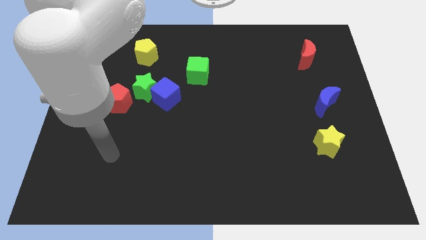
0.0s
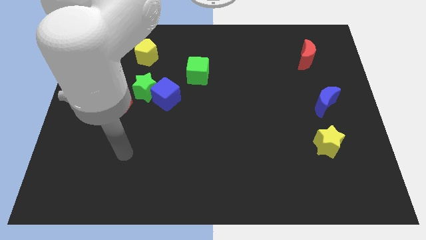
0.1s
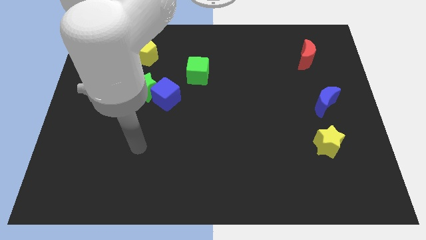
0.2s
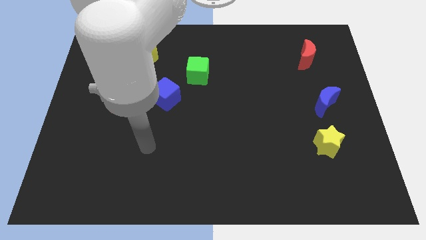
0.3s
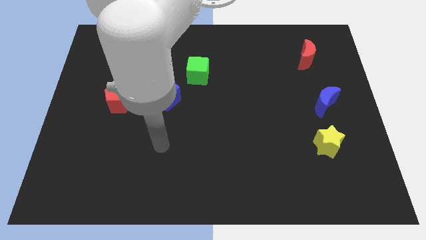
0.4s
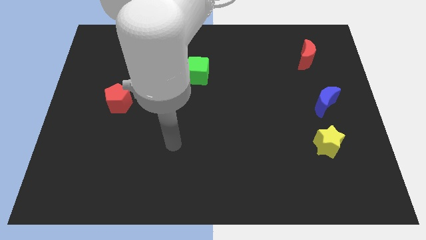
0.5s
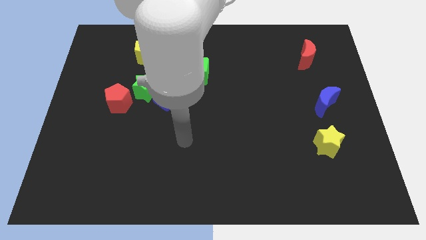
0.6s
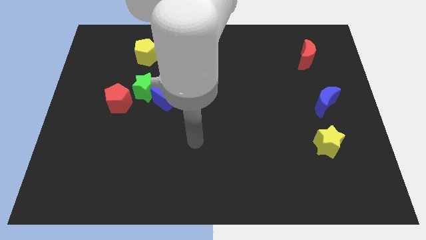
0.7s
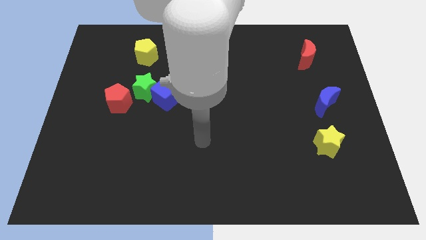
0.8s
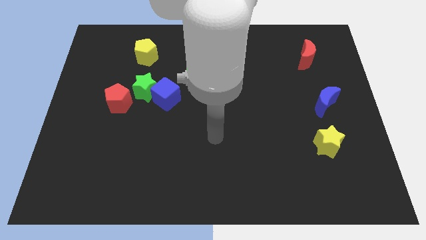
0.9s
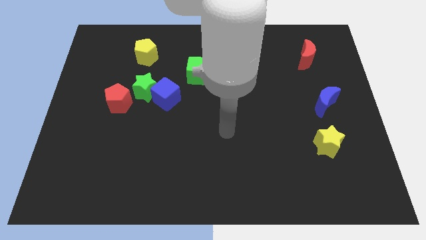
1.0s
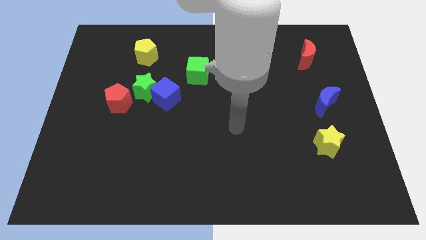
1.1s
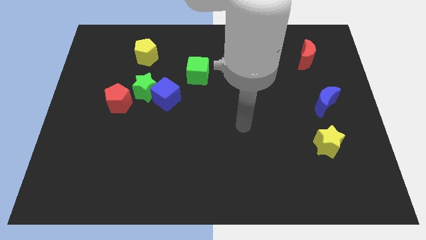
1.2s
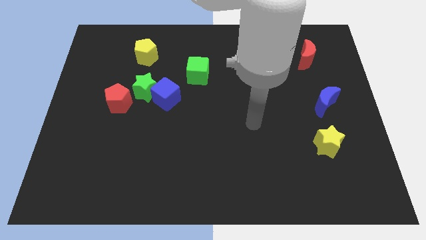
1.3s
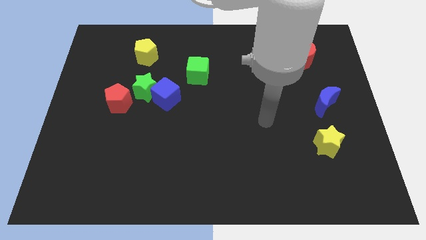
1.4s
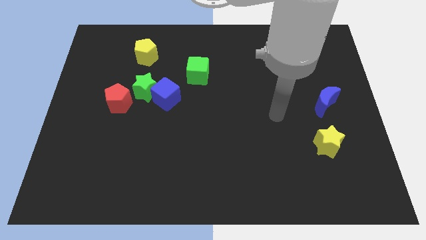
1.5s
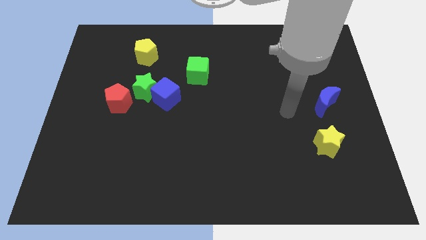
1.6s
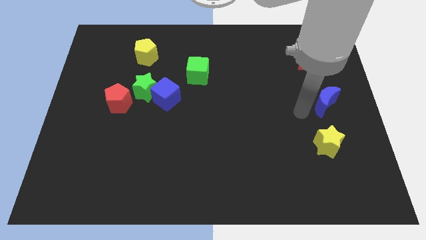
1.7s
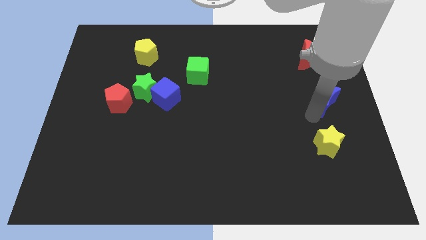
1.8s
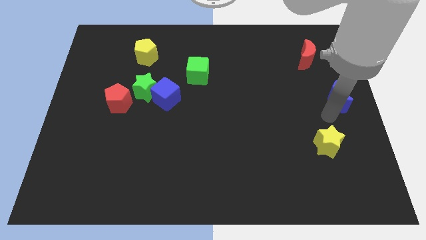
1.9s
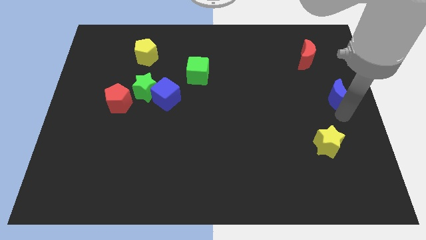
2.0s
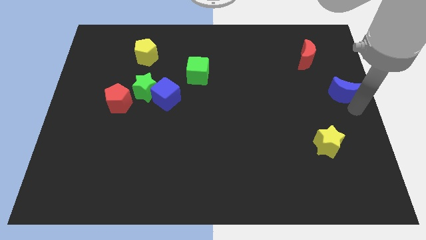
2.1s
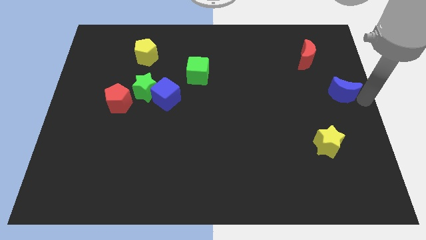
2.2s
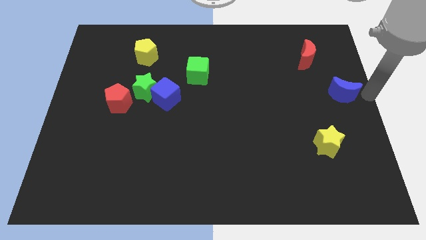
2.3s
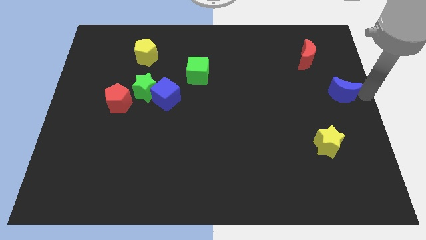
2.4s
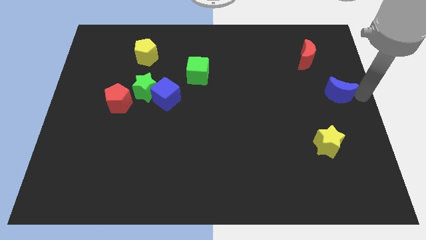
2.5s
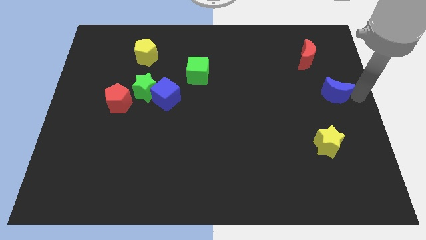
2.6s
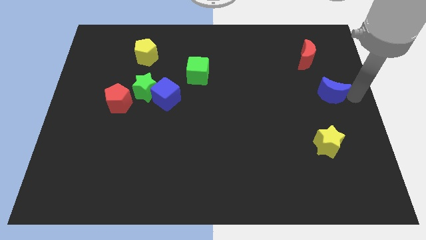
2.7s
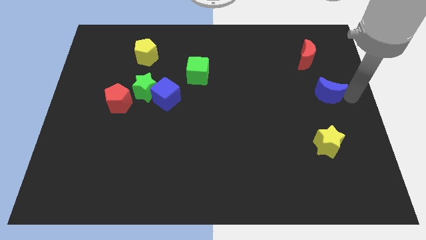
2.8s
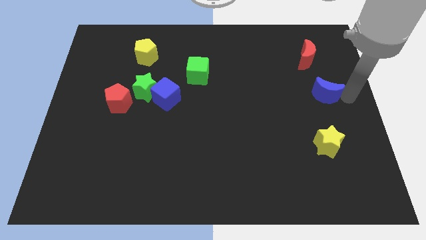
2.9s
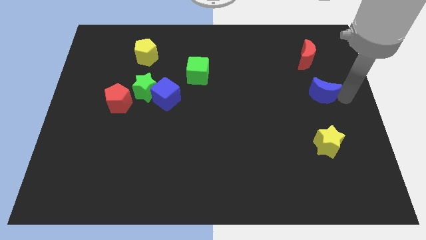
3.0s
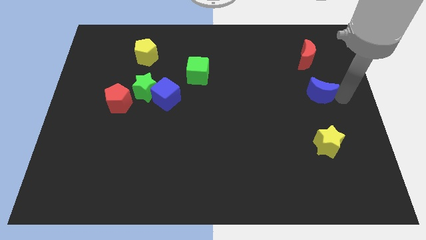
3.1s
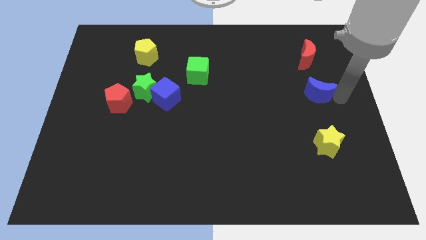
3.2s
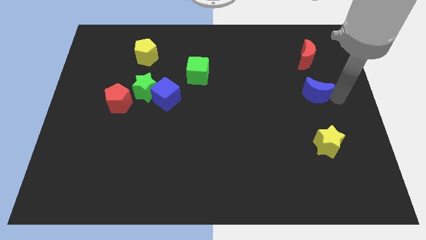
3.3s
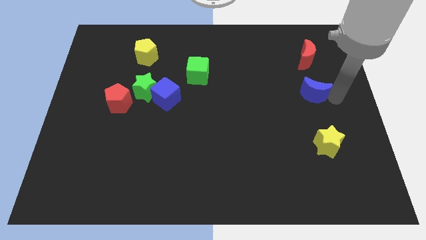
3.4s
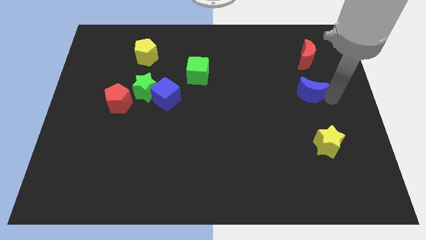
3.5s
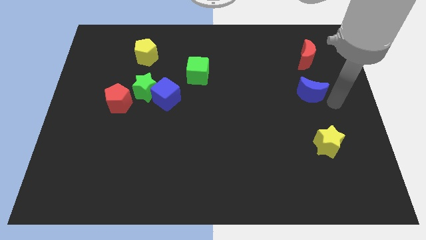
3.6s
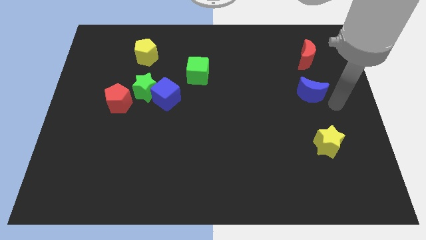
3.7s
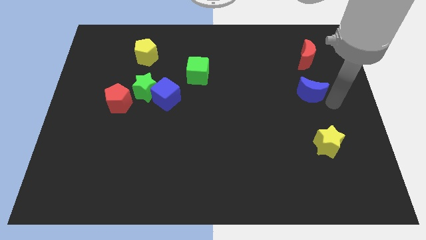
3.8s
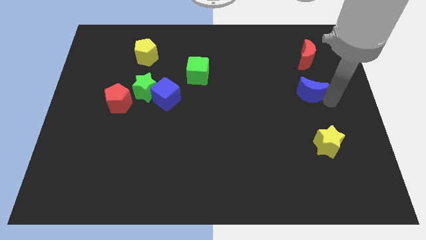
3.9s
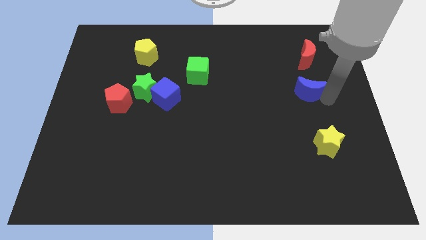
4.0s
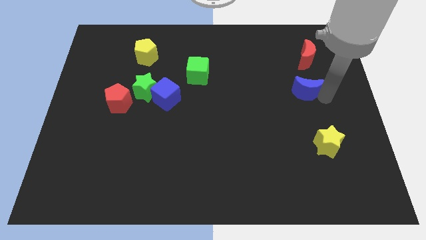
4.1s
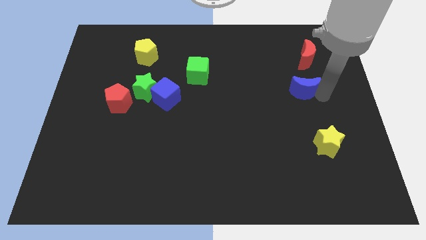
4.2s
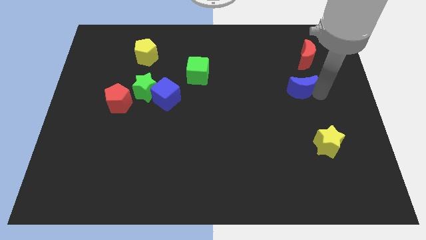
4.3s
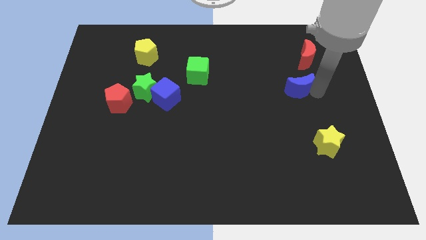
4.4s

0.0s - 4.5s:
slide the blue moon up and left diagonally somewhat

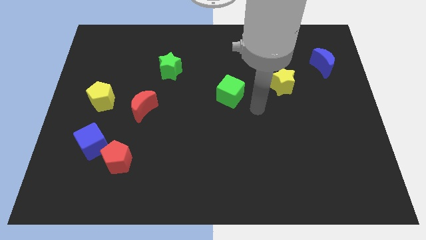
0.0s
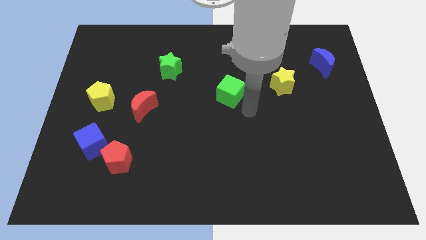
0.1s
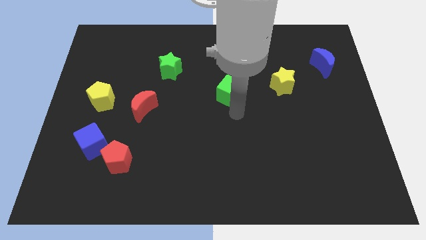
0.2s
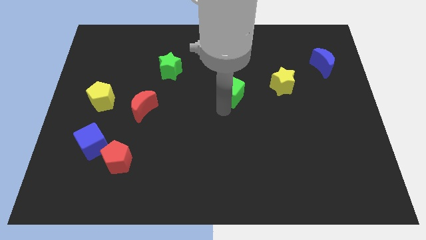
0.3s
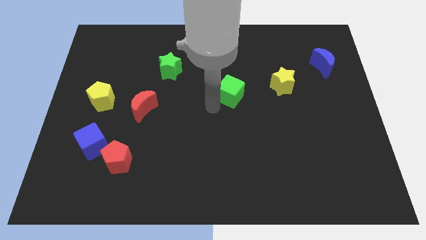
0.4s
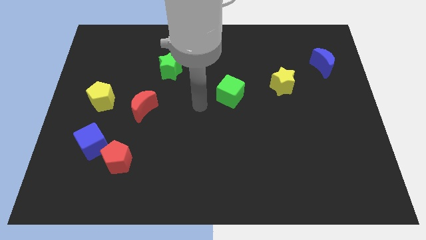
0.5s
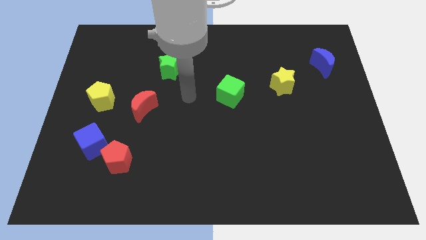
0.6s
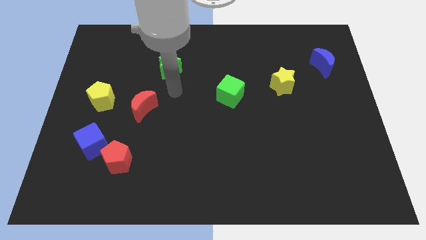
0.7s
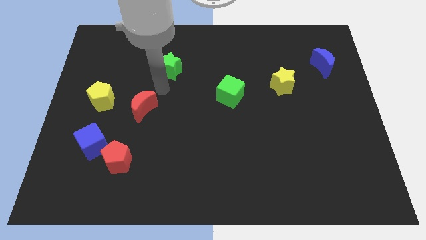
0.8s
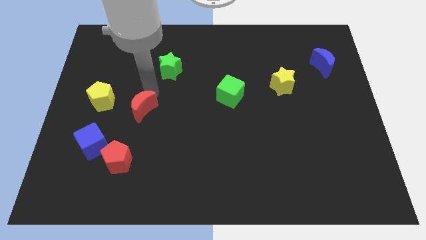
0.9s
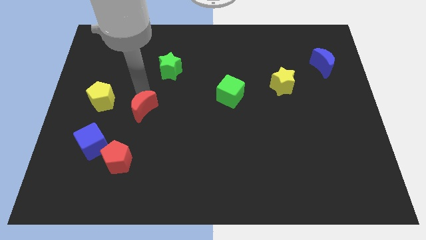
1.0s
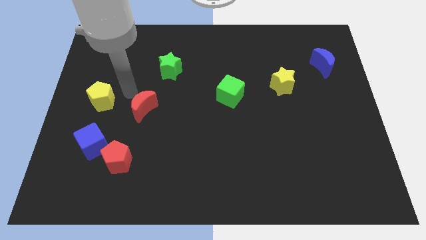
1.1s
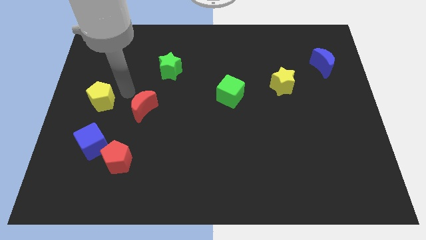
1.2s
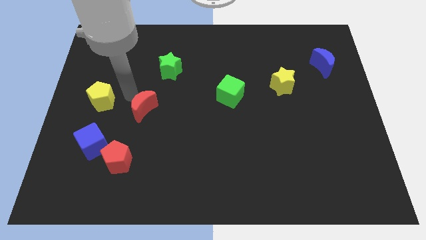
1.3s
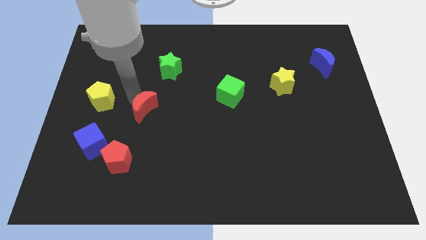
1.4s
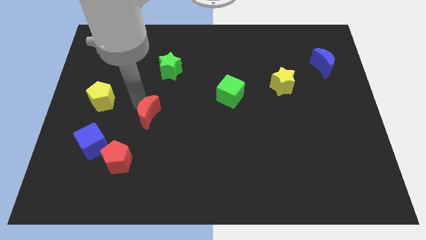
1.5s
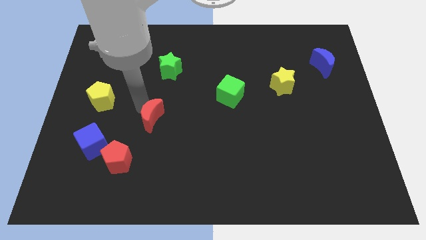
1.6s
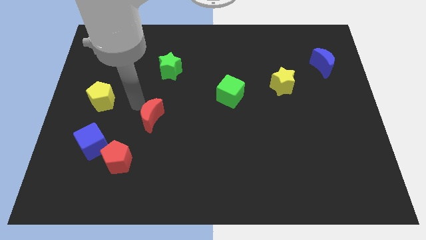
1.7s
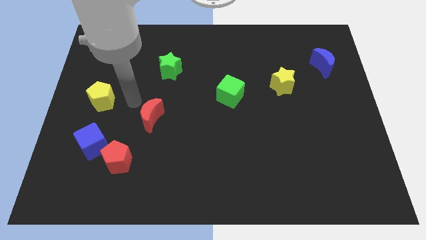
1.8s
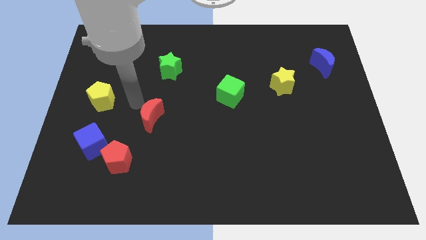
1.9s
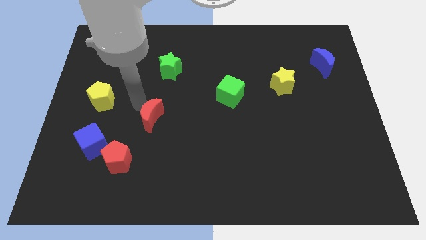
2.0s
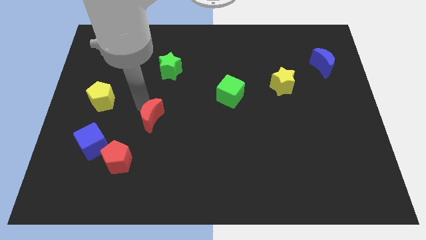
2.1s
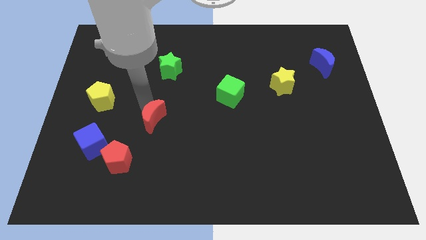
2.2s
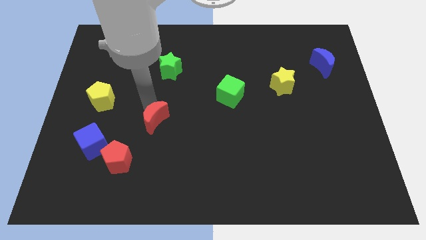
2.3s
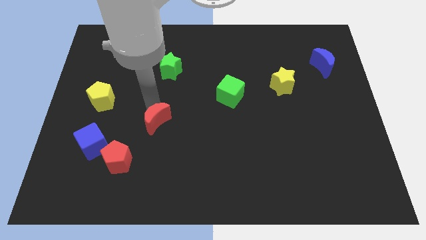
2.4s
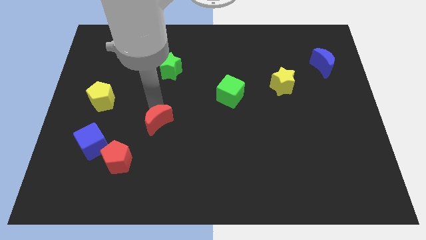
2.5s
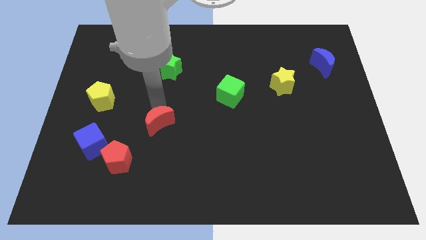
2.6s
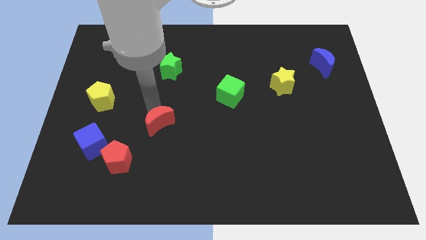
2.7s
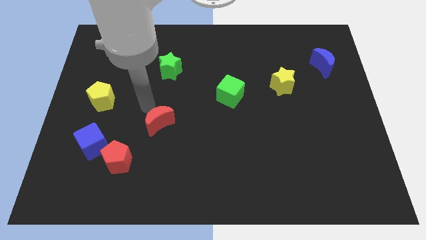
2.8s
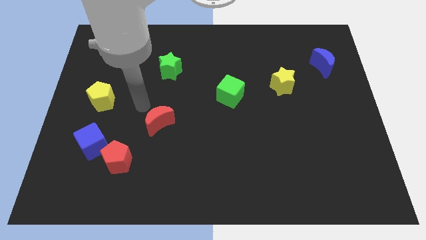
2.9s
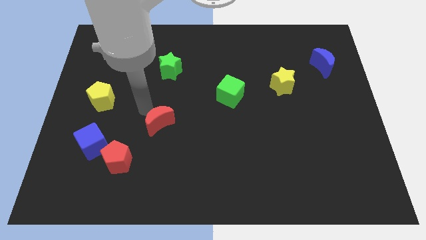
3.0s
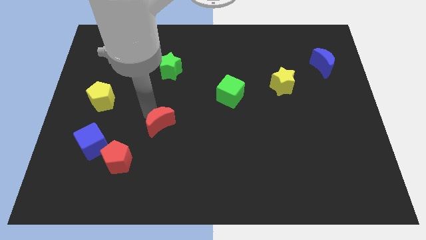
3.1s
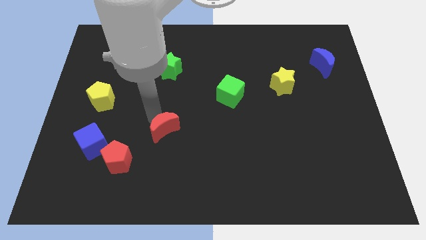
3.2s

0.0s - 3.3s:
push the red moon somewhat down and right
